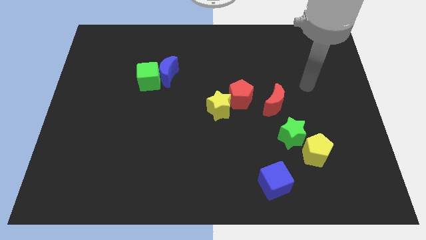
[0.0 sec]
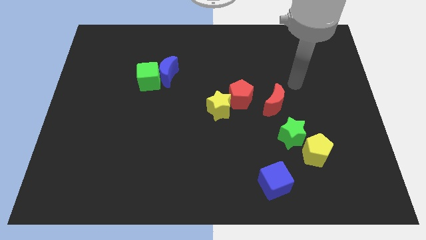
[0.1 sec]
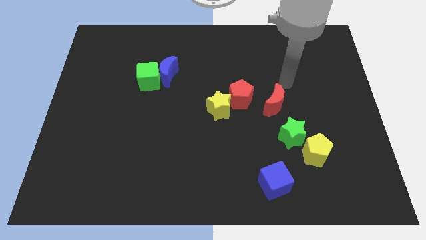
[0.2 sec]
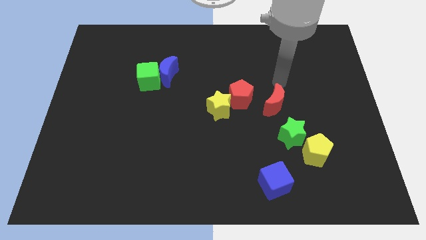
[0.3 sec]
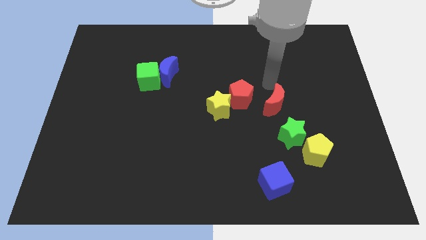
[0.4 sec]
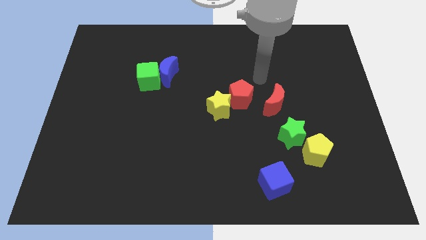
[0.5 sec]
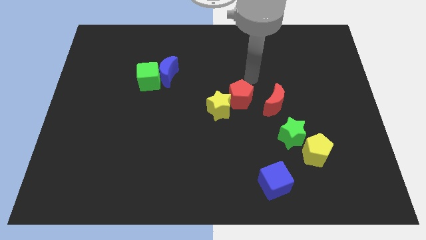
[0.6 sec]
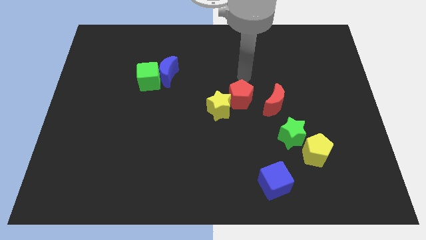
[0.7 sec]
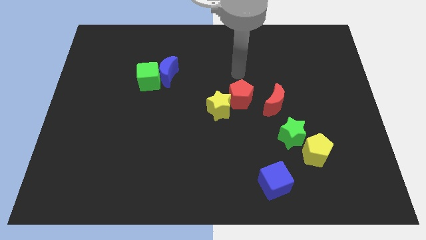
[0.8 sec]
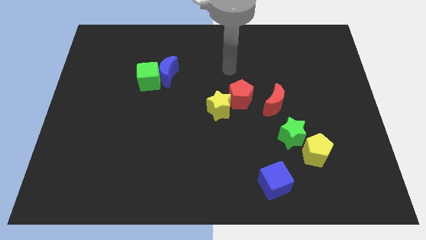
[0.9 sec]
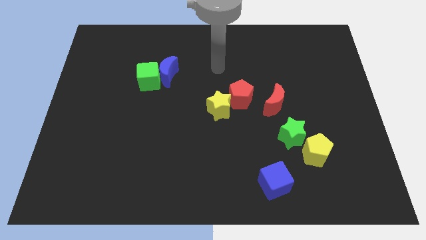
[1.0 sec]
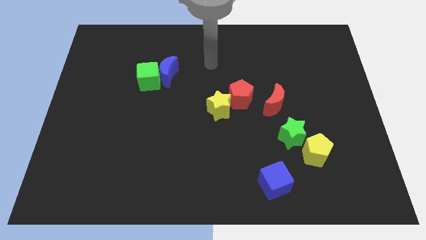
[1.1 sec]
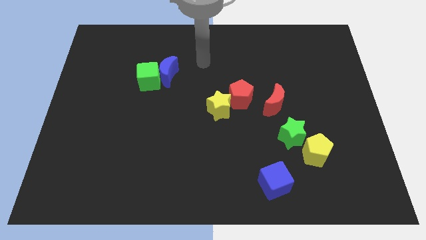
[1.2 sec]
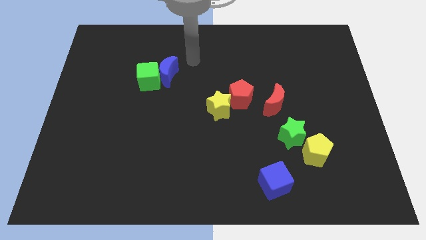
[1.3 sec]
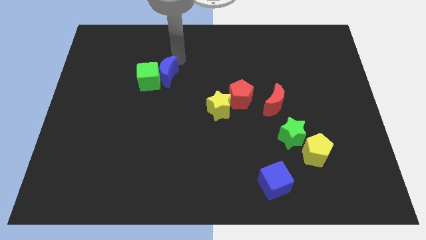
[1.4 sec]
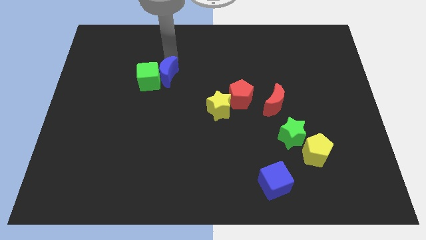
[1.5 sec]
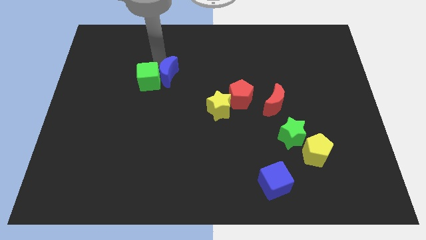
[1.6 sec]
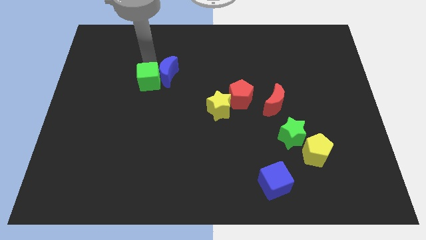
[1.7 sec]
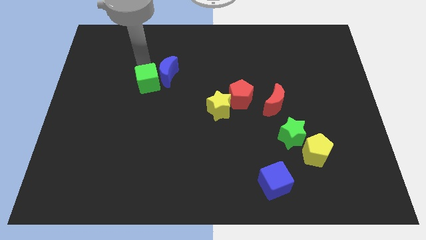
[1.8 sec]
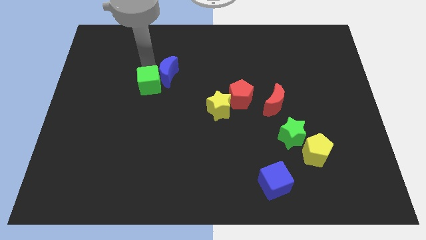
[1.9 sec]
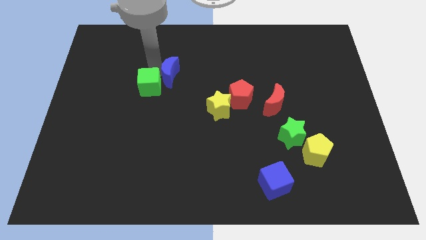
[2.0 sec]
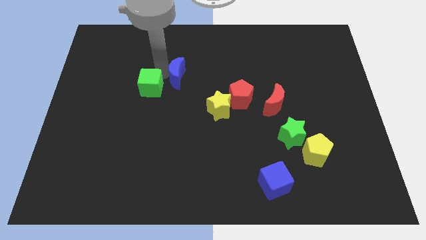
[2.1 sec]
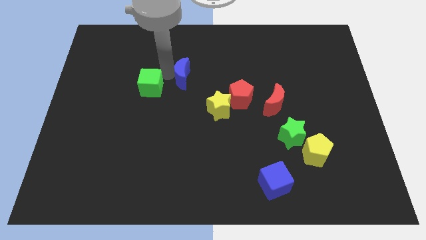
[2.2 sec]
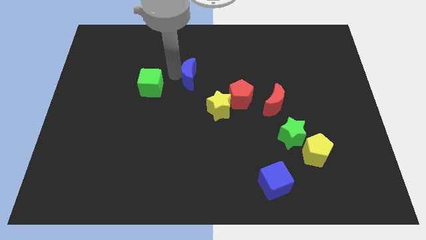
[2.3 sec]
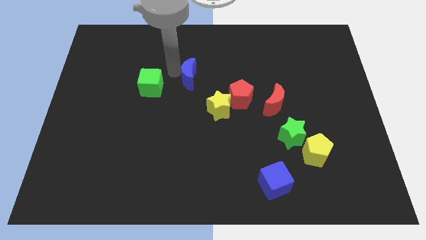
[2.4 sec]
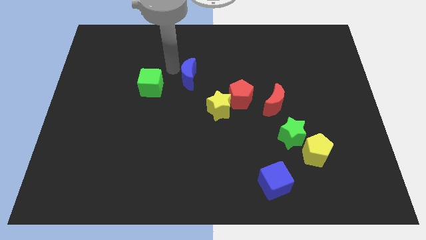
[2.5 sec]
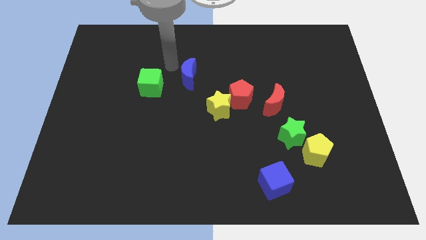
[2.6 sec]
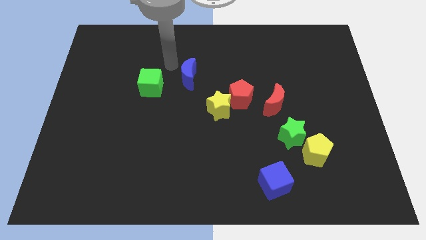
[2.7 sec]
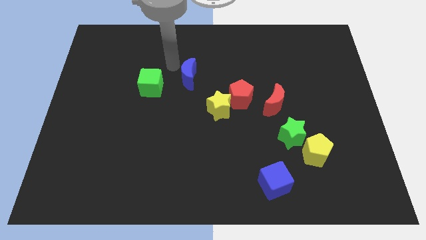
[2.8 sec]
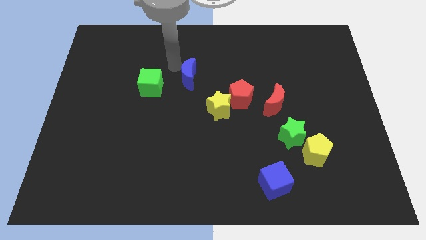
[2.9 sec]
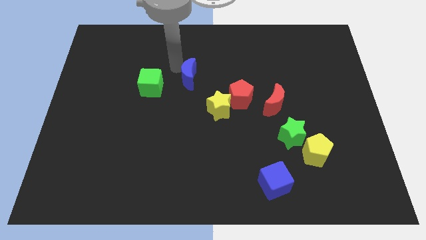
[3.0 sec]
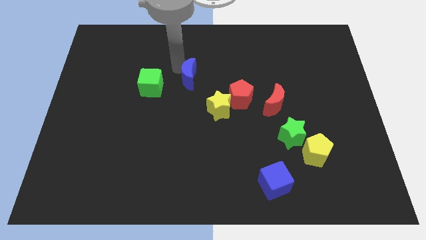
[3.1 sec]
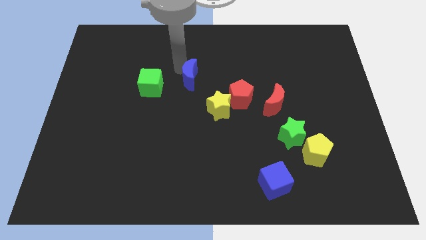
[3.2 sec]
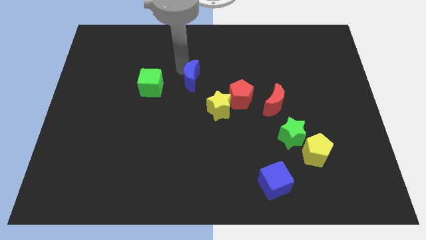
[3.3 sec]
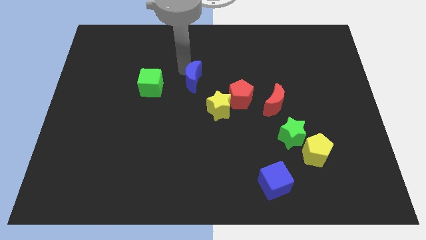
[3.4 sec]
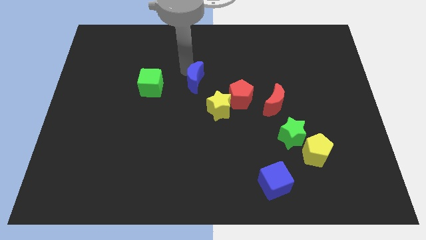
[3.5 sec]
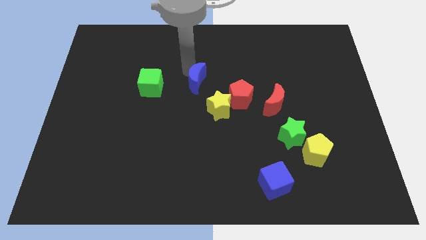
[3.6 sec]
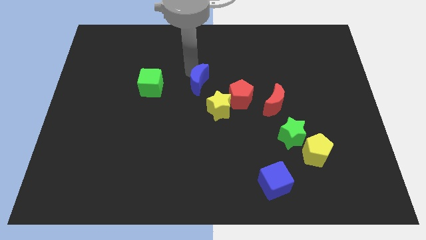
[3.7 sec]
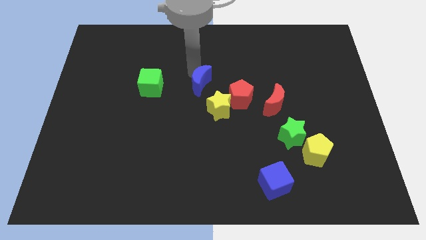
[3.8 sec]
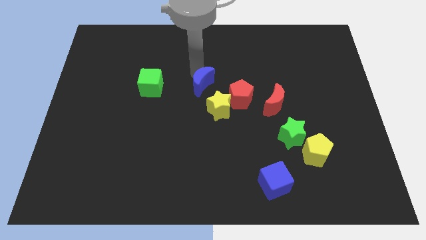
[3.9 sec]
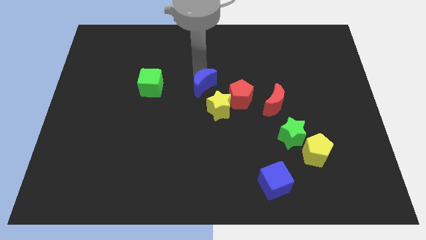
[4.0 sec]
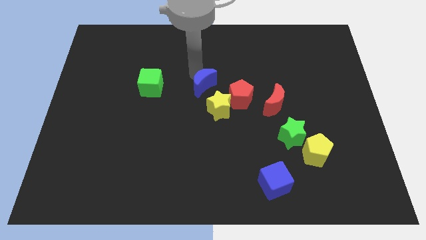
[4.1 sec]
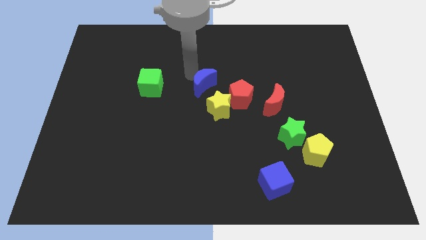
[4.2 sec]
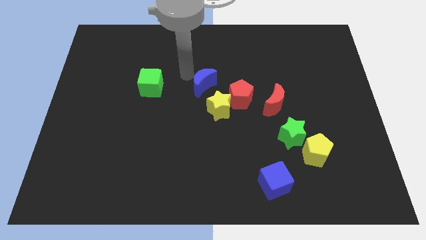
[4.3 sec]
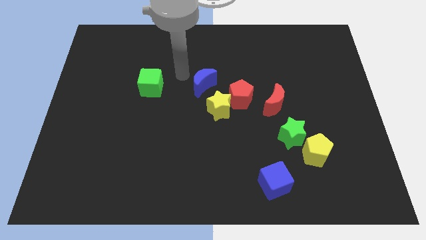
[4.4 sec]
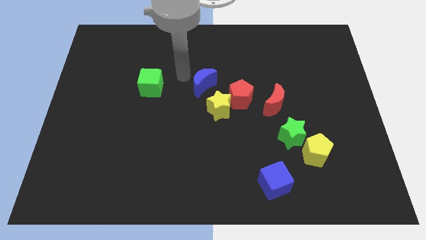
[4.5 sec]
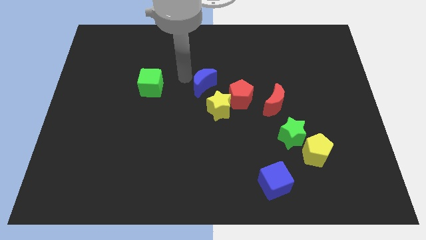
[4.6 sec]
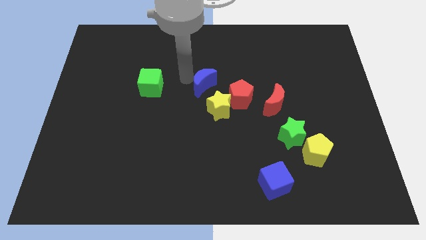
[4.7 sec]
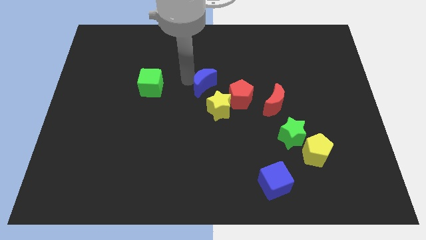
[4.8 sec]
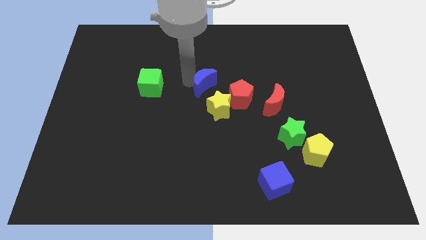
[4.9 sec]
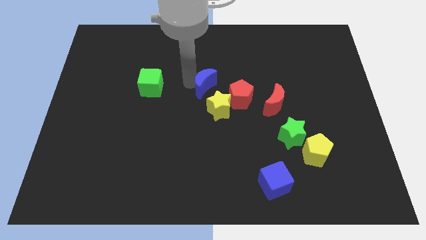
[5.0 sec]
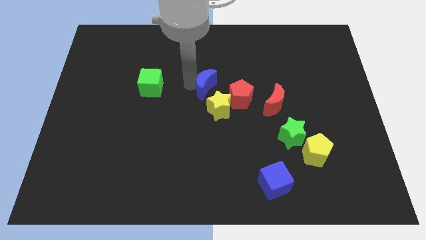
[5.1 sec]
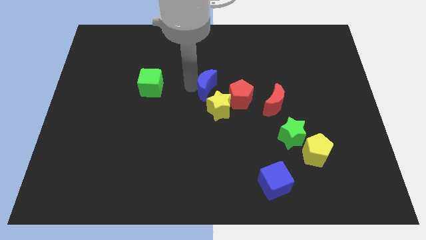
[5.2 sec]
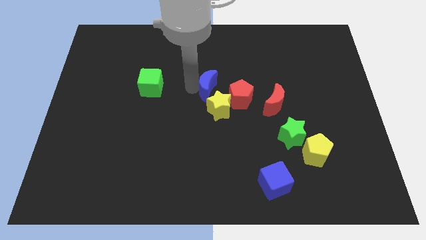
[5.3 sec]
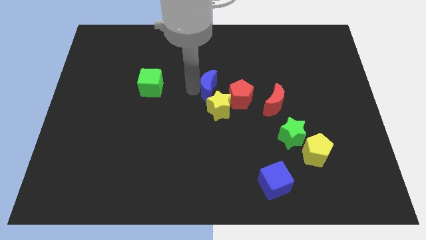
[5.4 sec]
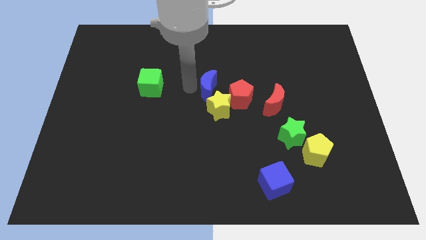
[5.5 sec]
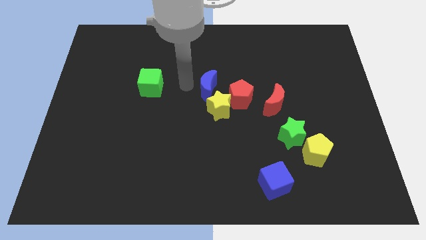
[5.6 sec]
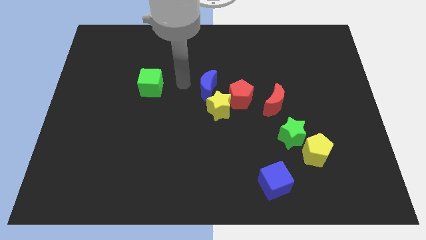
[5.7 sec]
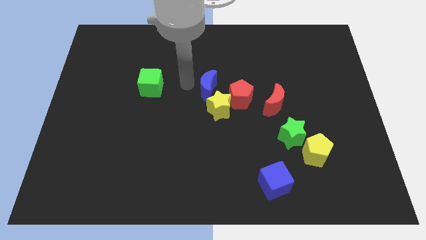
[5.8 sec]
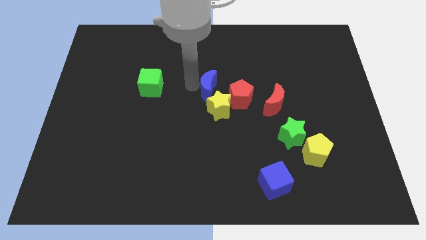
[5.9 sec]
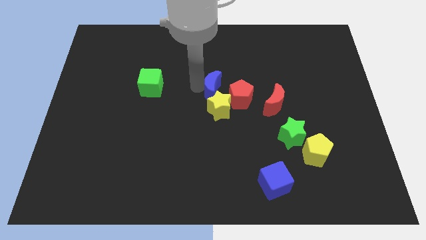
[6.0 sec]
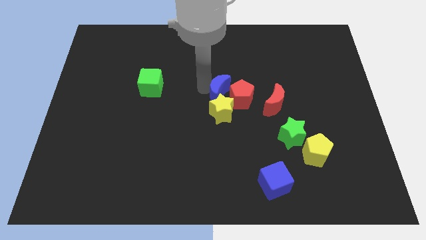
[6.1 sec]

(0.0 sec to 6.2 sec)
put the blue moon next to the red pentagon

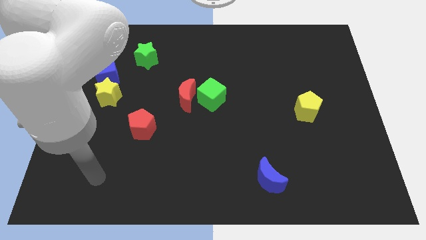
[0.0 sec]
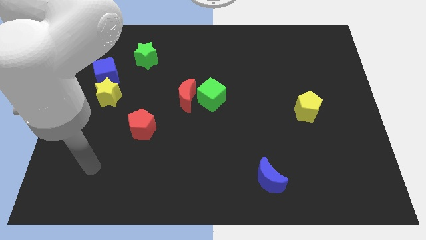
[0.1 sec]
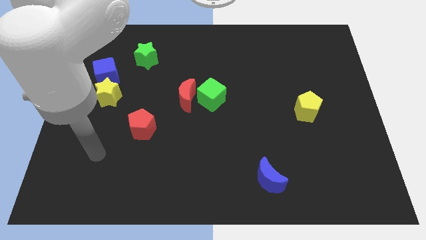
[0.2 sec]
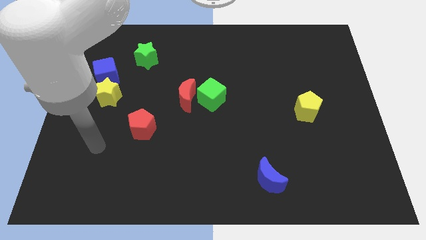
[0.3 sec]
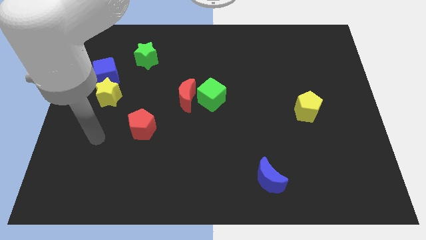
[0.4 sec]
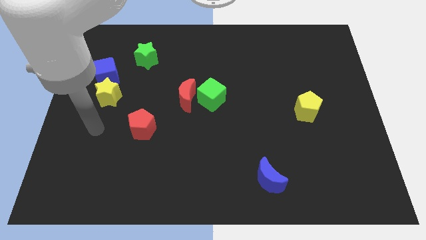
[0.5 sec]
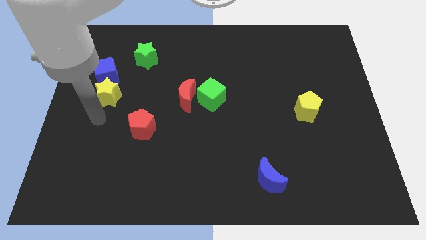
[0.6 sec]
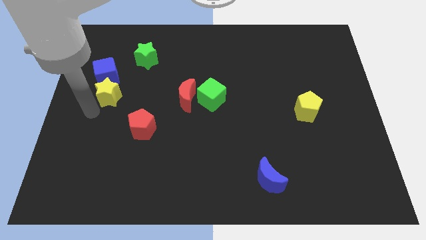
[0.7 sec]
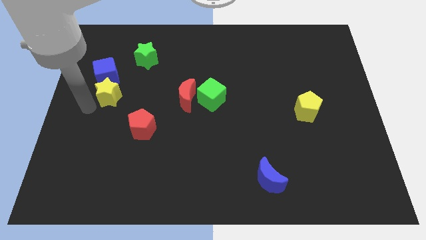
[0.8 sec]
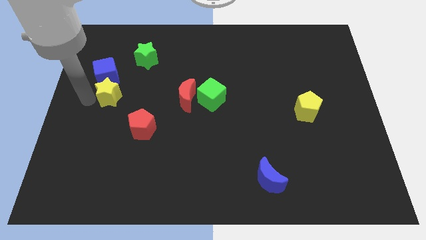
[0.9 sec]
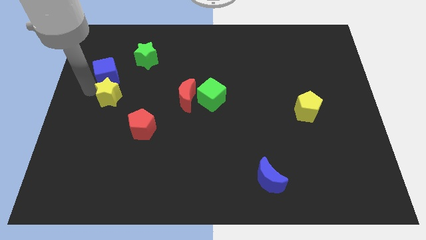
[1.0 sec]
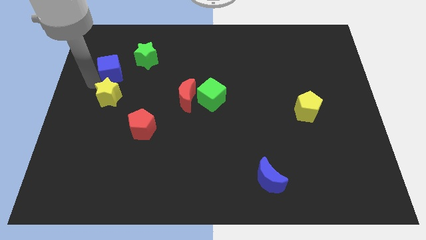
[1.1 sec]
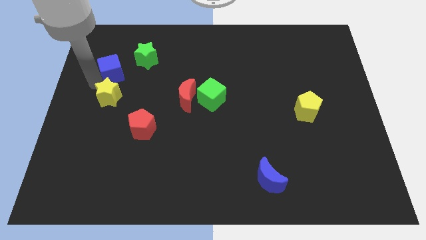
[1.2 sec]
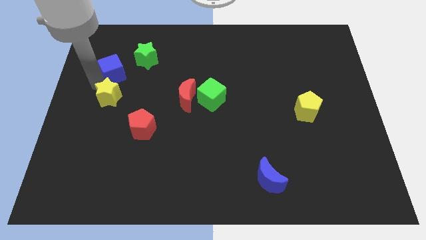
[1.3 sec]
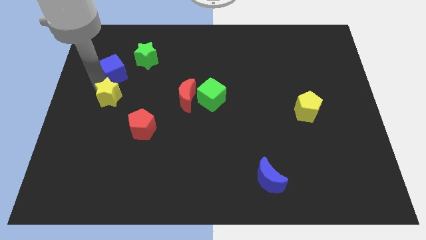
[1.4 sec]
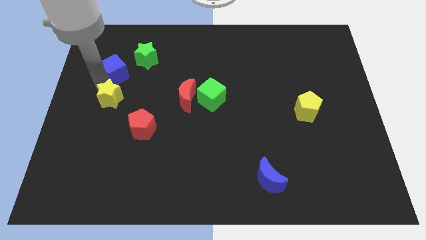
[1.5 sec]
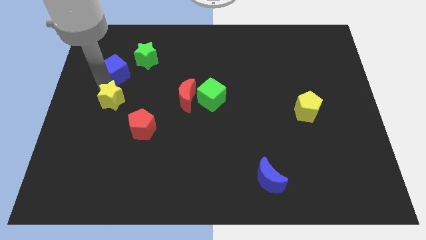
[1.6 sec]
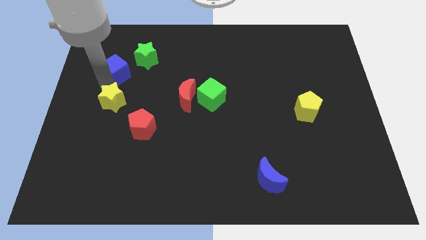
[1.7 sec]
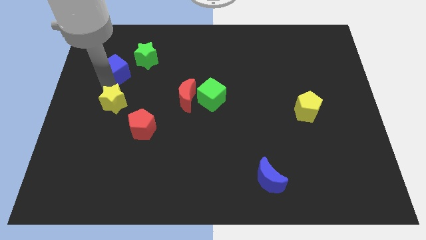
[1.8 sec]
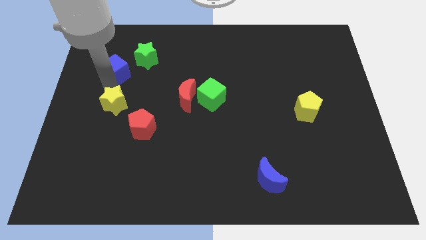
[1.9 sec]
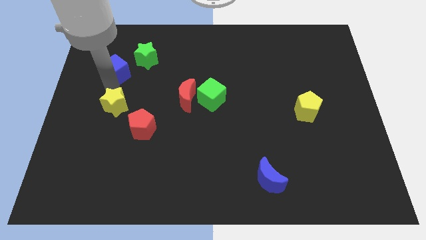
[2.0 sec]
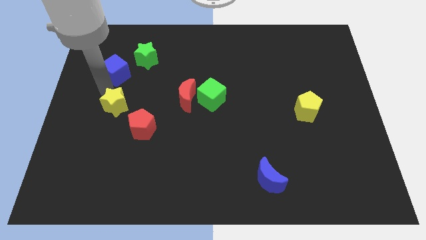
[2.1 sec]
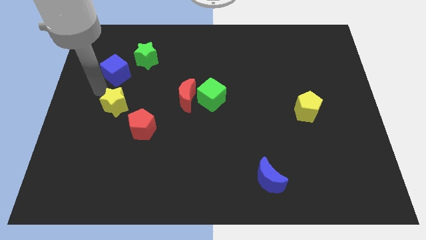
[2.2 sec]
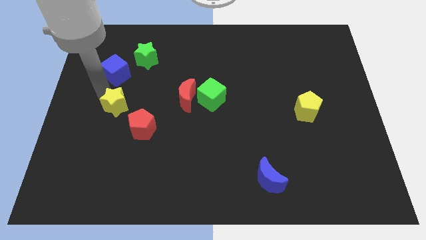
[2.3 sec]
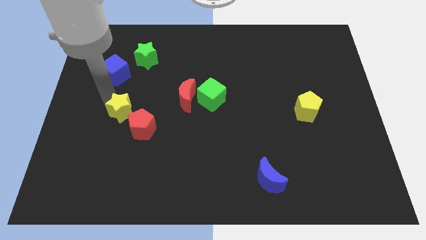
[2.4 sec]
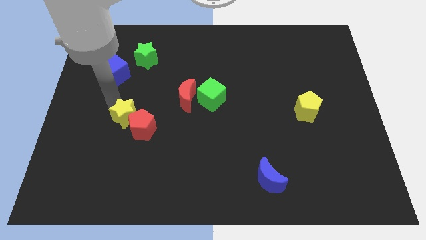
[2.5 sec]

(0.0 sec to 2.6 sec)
slide the yellow star towards the red pentagon
